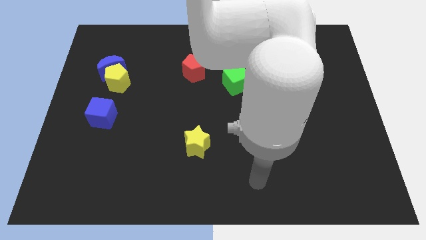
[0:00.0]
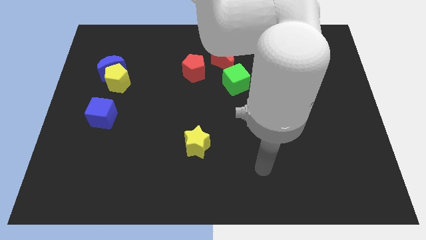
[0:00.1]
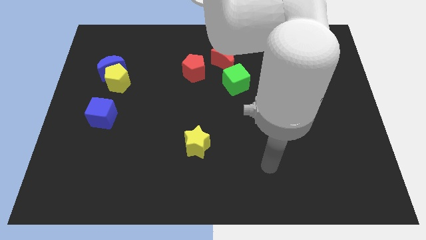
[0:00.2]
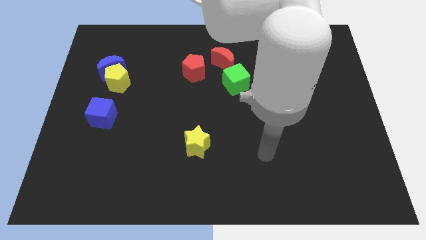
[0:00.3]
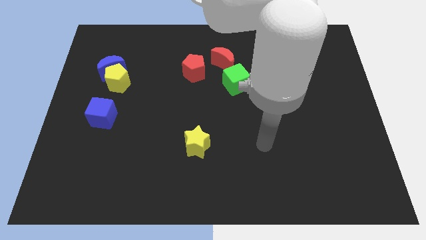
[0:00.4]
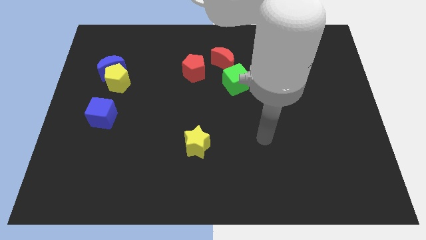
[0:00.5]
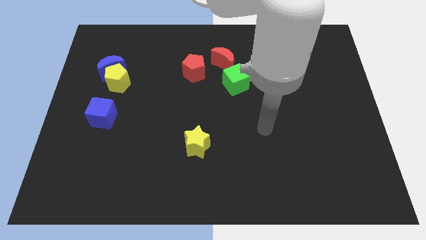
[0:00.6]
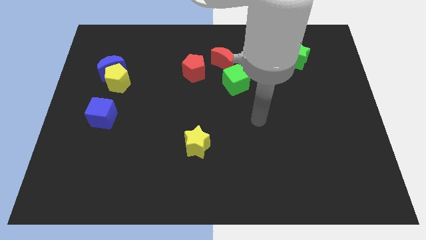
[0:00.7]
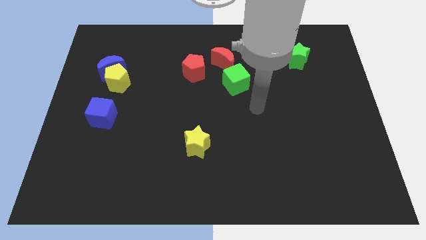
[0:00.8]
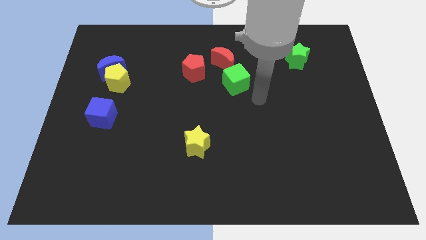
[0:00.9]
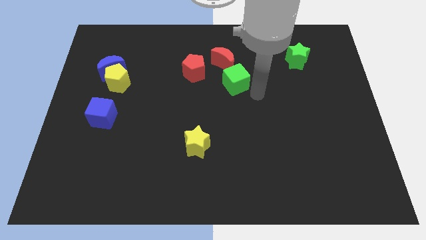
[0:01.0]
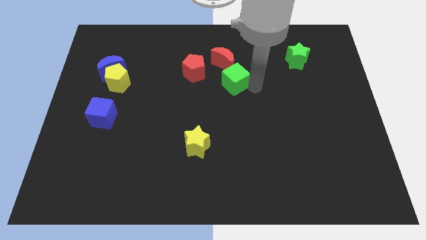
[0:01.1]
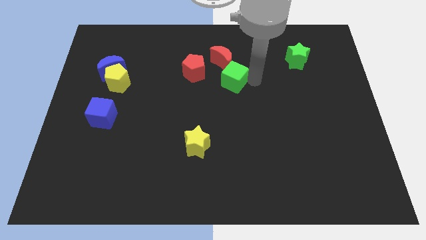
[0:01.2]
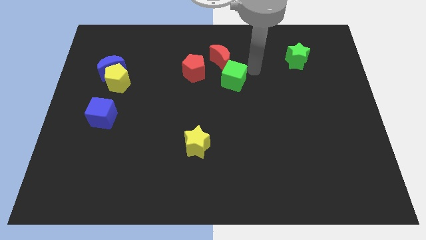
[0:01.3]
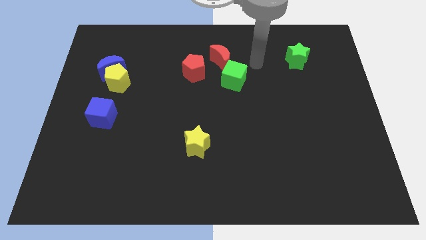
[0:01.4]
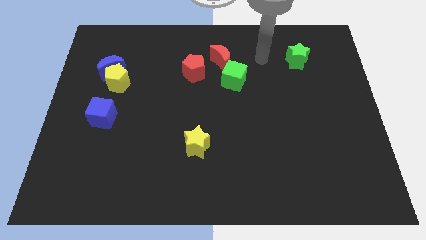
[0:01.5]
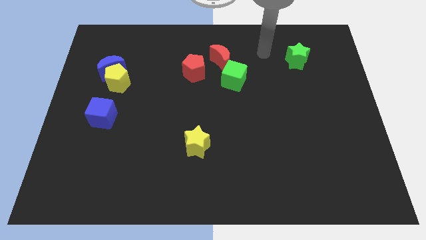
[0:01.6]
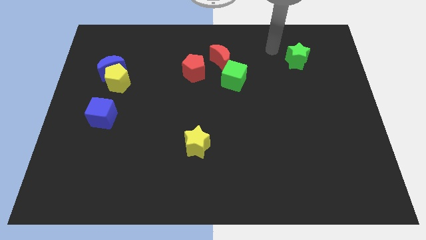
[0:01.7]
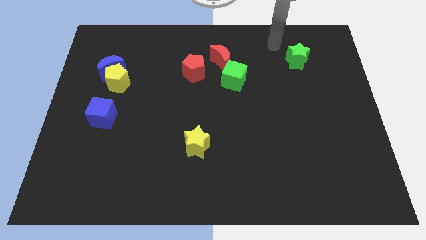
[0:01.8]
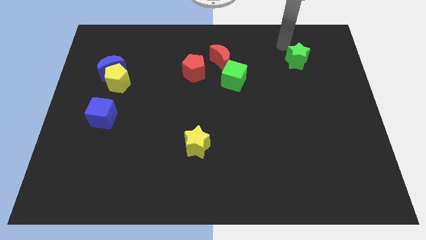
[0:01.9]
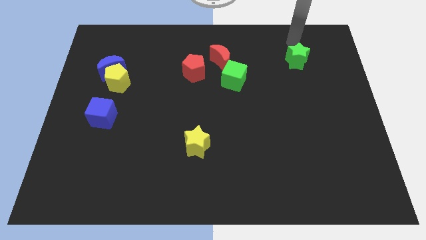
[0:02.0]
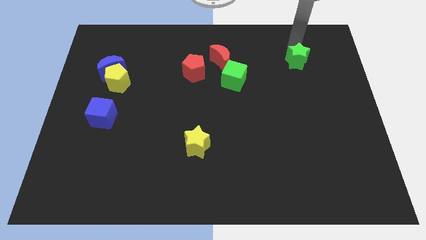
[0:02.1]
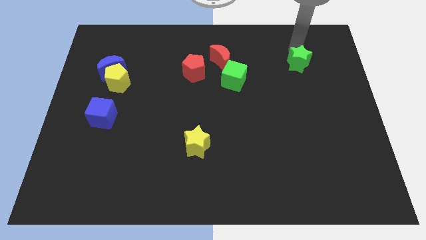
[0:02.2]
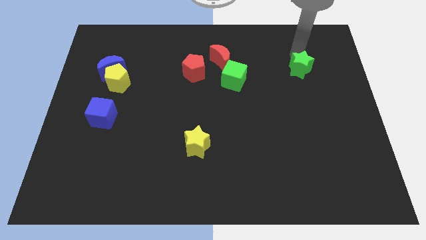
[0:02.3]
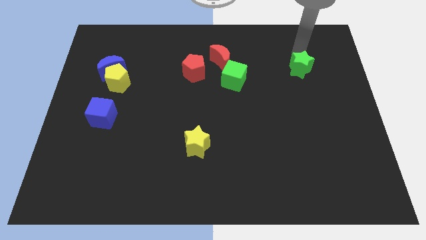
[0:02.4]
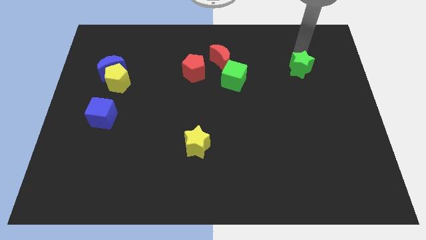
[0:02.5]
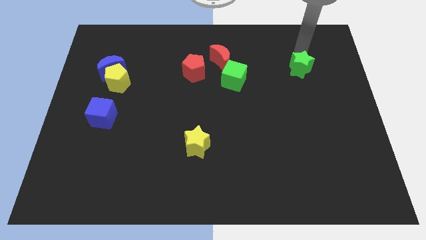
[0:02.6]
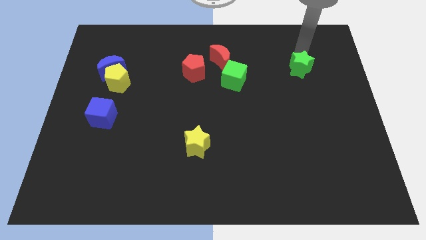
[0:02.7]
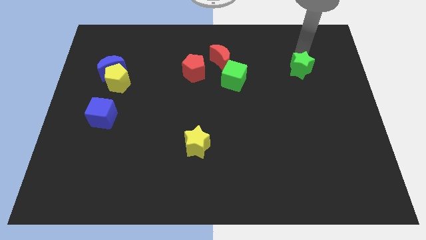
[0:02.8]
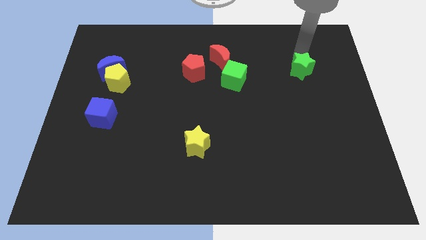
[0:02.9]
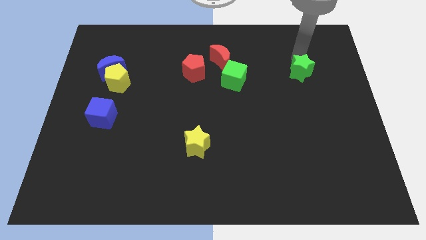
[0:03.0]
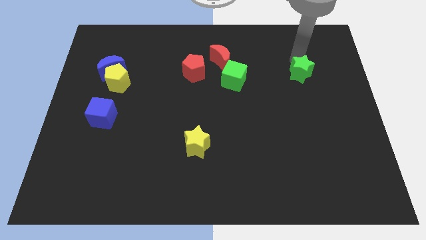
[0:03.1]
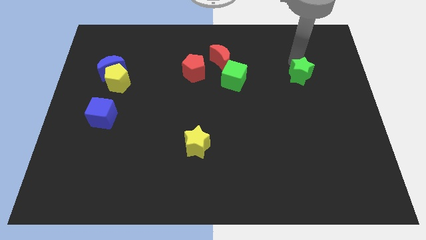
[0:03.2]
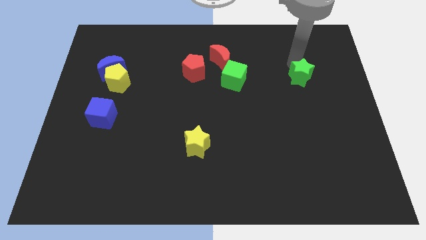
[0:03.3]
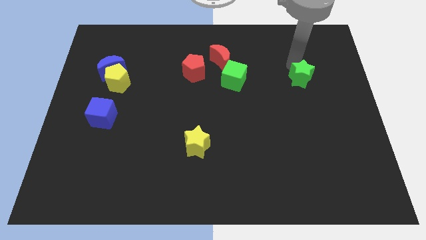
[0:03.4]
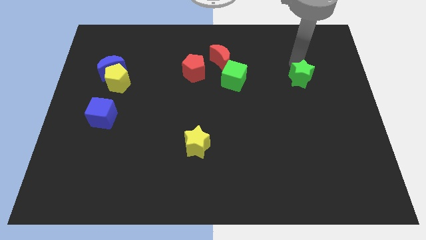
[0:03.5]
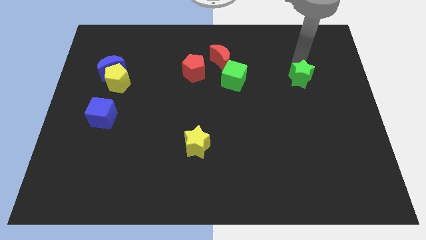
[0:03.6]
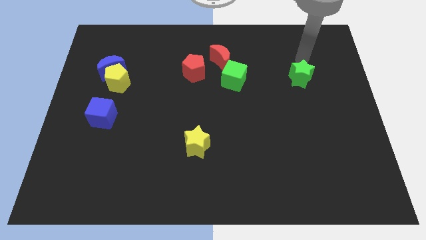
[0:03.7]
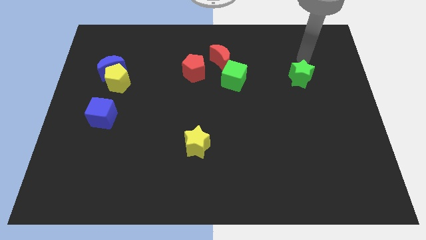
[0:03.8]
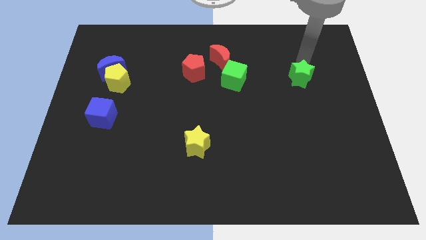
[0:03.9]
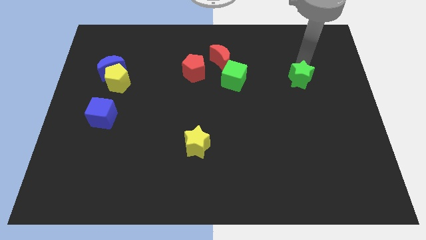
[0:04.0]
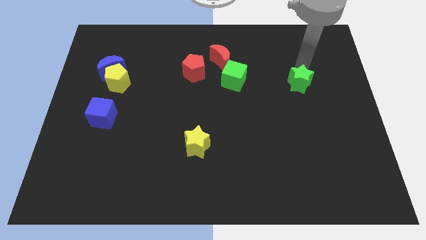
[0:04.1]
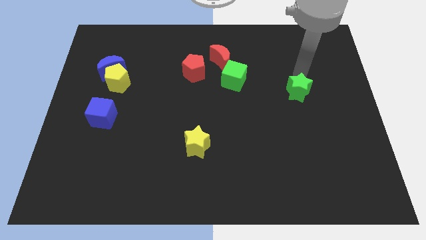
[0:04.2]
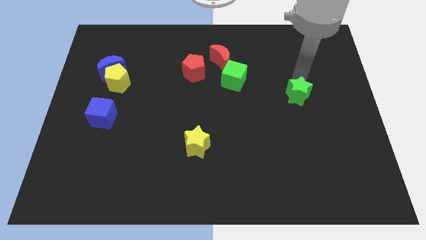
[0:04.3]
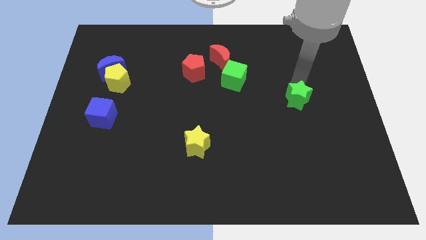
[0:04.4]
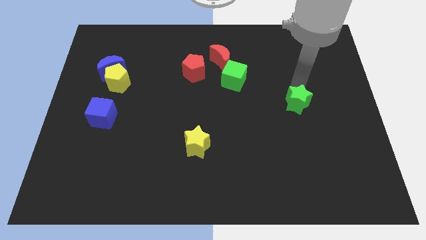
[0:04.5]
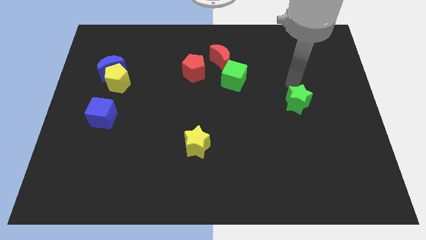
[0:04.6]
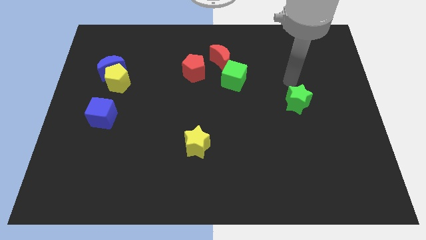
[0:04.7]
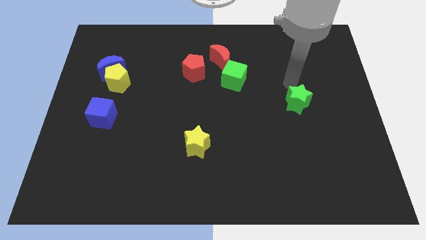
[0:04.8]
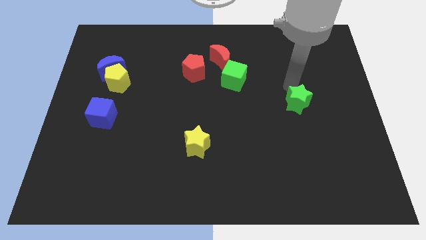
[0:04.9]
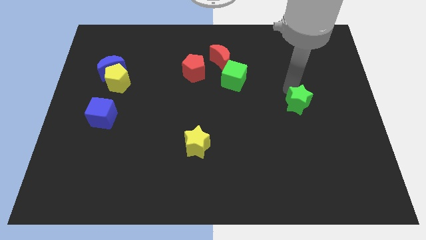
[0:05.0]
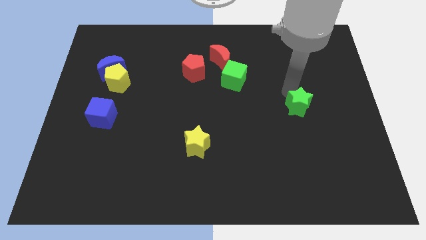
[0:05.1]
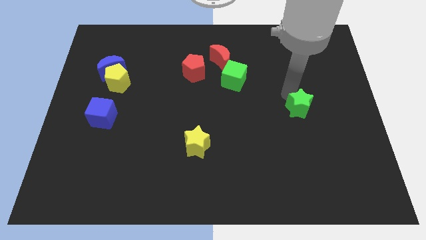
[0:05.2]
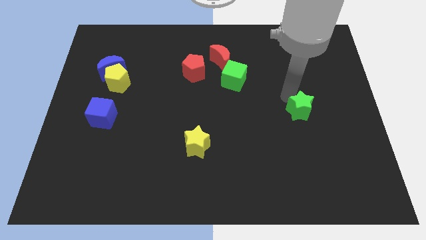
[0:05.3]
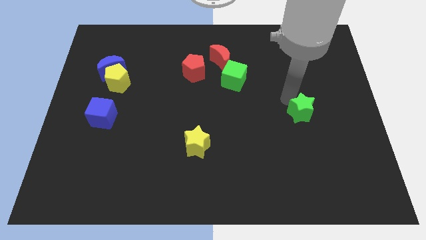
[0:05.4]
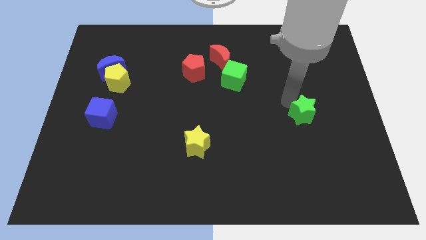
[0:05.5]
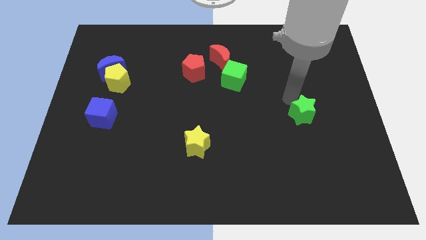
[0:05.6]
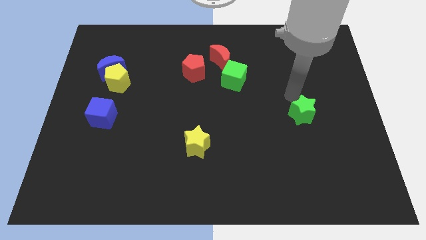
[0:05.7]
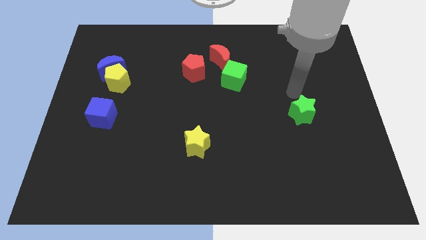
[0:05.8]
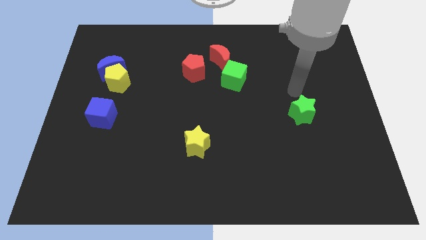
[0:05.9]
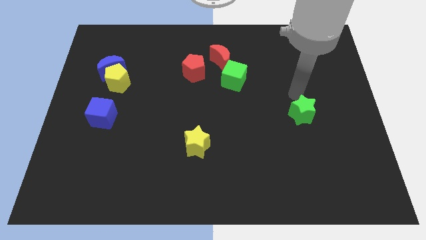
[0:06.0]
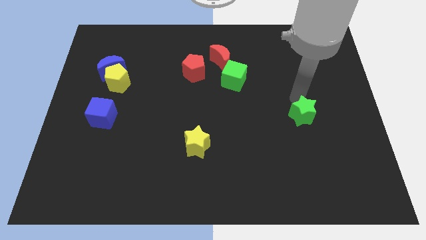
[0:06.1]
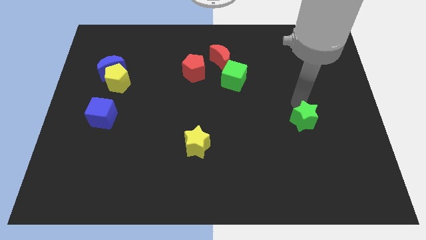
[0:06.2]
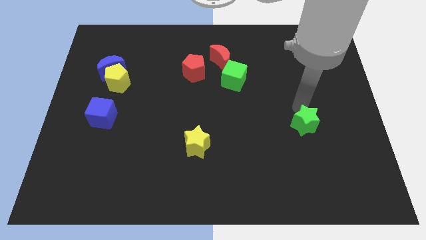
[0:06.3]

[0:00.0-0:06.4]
move the green star downwards

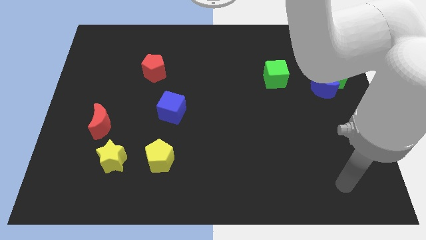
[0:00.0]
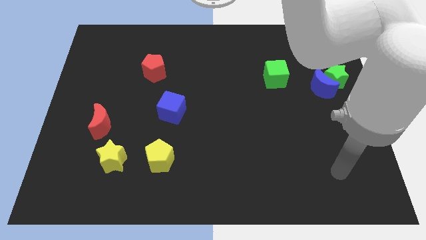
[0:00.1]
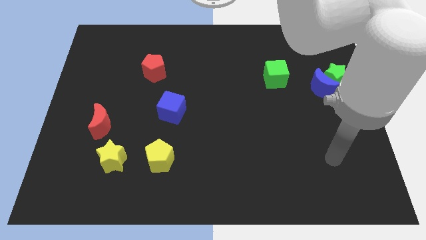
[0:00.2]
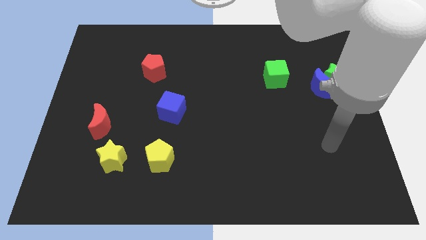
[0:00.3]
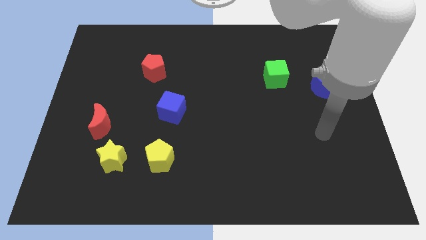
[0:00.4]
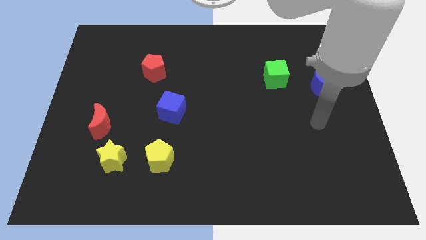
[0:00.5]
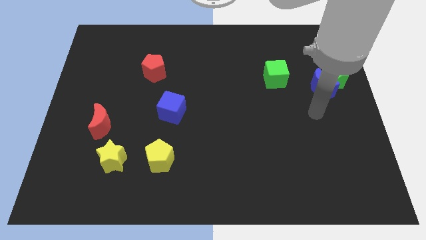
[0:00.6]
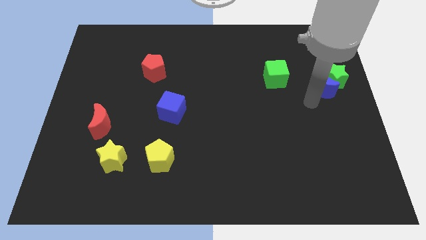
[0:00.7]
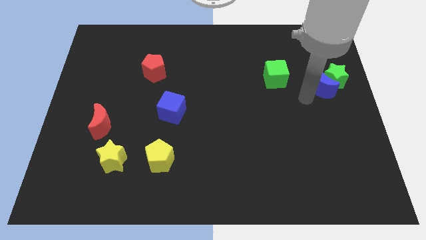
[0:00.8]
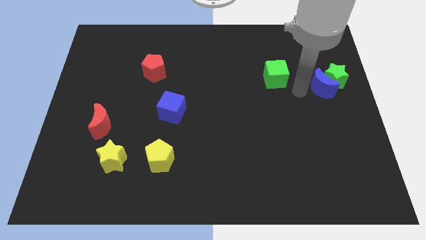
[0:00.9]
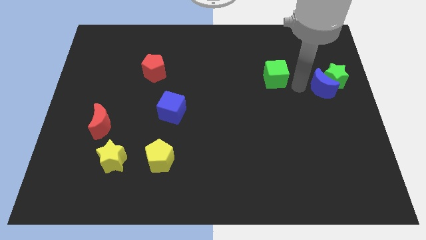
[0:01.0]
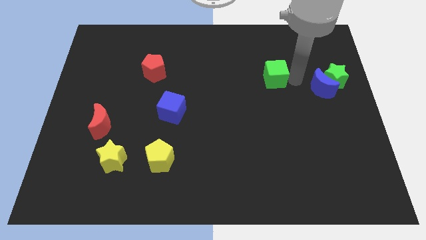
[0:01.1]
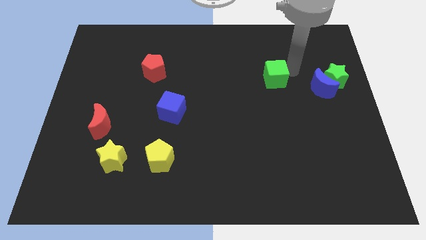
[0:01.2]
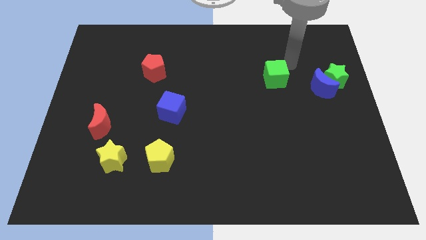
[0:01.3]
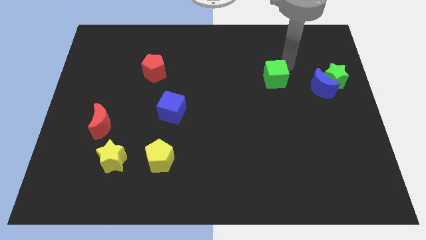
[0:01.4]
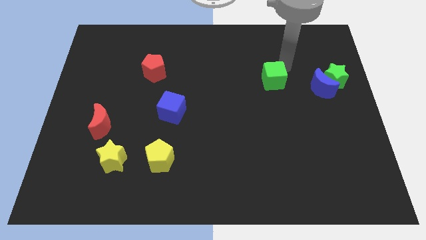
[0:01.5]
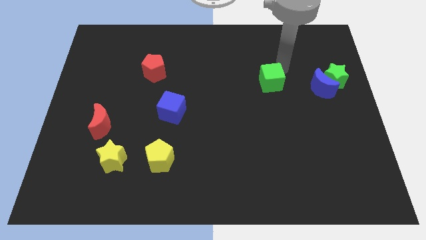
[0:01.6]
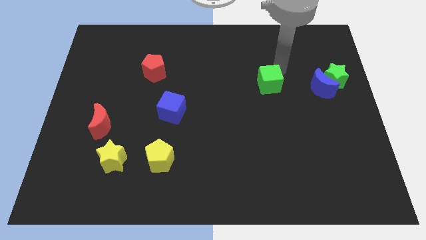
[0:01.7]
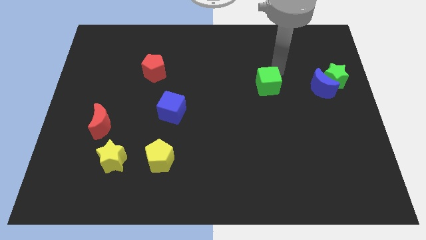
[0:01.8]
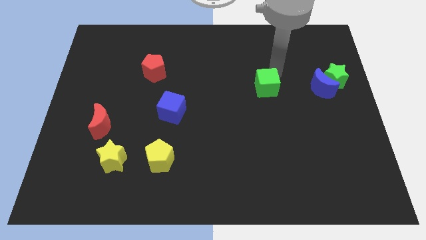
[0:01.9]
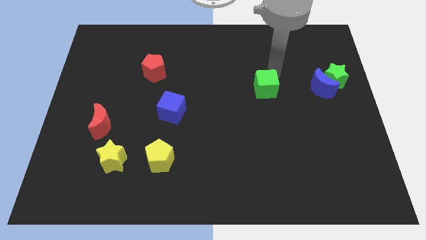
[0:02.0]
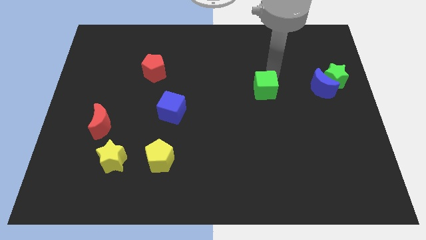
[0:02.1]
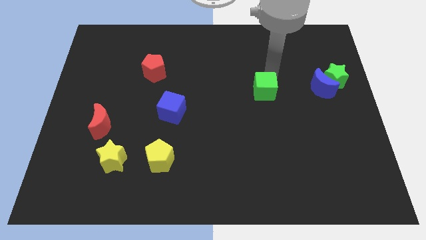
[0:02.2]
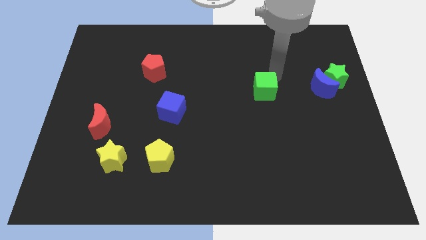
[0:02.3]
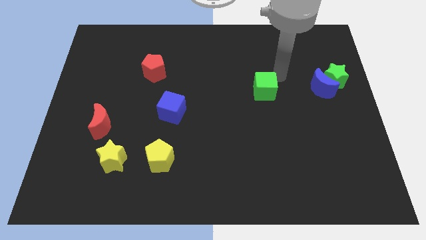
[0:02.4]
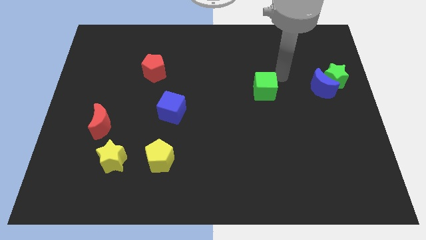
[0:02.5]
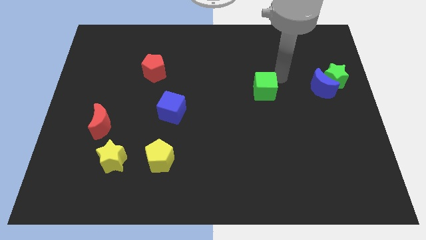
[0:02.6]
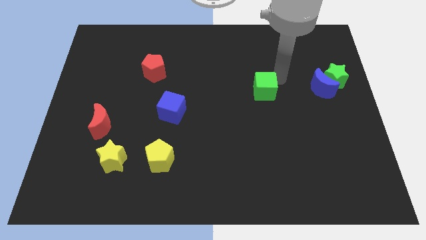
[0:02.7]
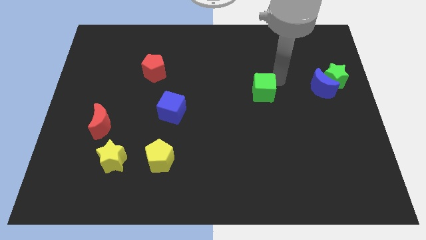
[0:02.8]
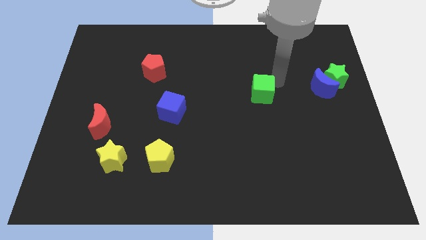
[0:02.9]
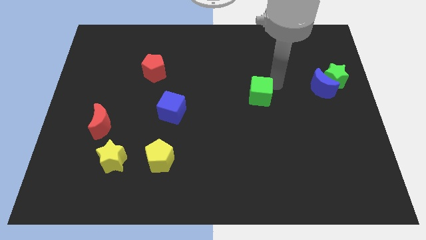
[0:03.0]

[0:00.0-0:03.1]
slide the green cube a bit diagonally down and left
